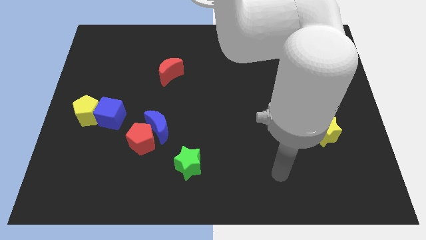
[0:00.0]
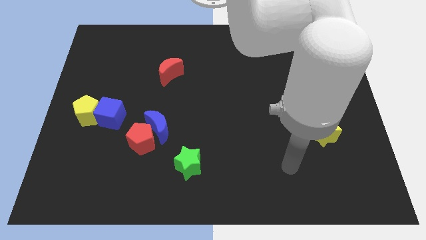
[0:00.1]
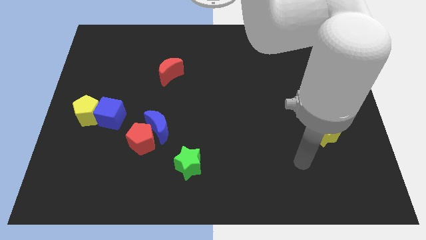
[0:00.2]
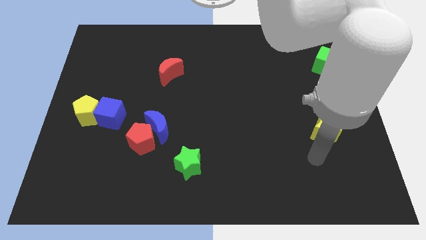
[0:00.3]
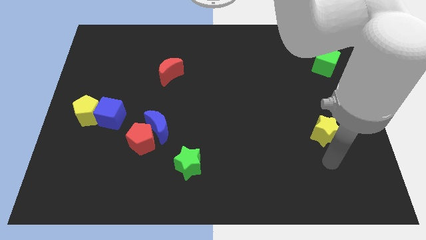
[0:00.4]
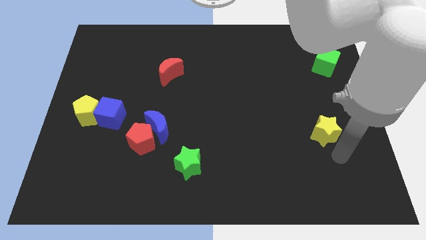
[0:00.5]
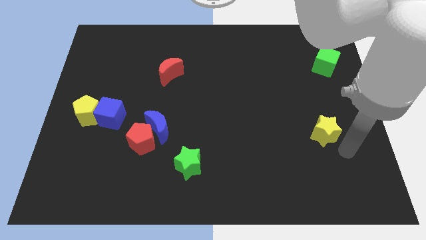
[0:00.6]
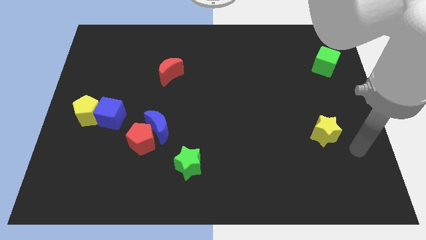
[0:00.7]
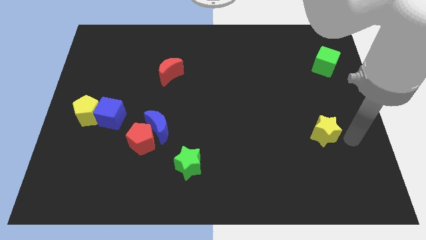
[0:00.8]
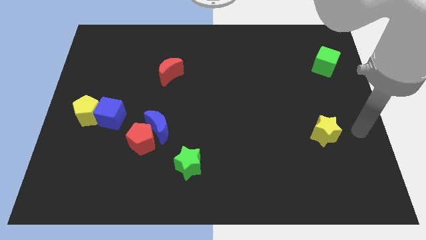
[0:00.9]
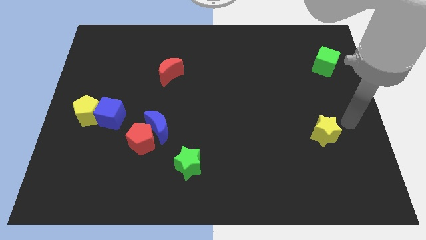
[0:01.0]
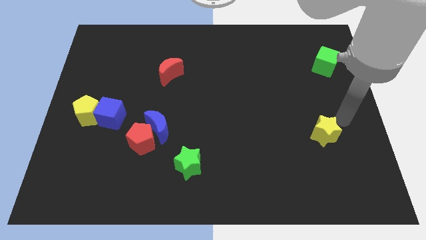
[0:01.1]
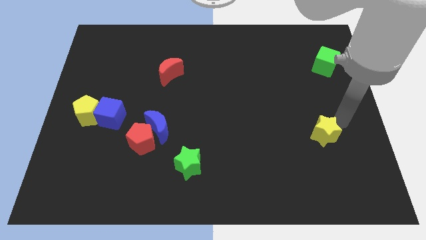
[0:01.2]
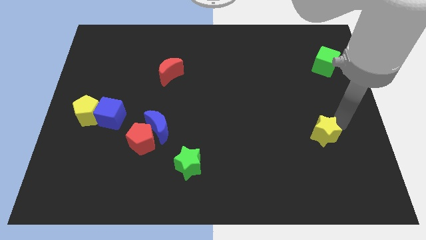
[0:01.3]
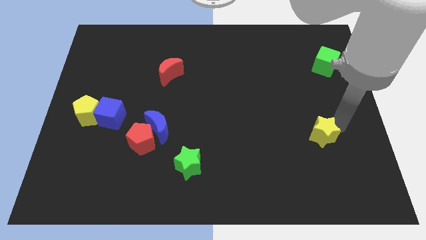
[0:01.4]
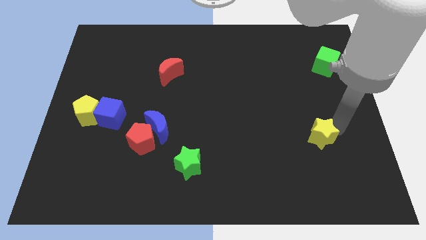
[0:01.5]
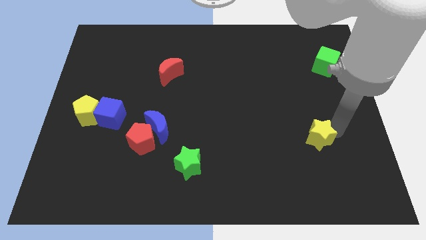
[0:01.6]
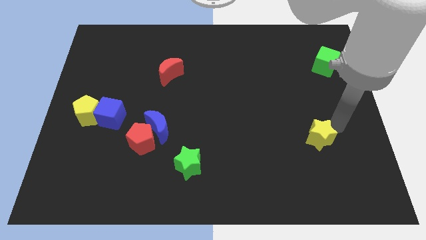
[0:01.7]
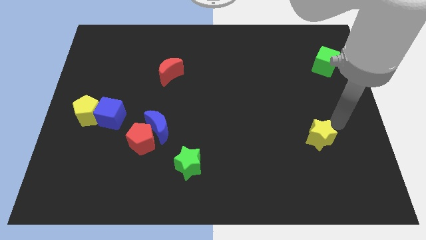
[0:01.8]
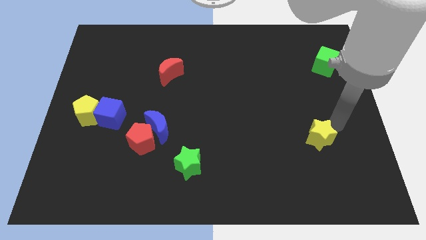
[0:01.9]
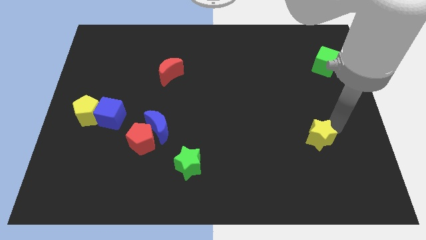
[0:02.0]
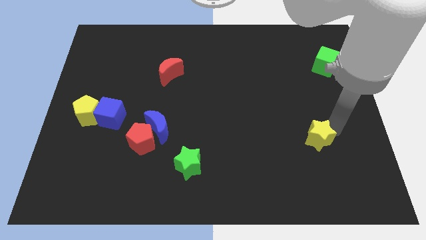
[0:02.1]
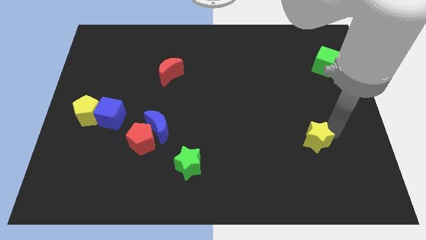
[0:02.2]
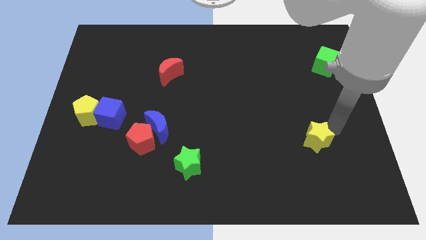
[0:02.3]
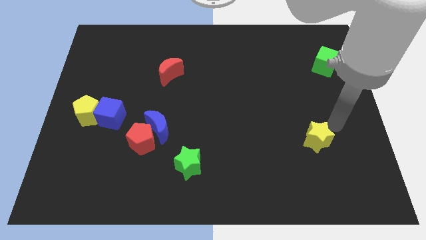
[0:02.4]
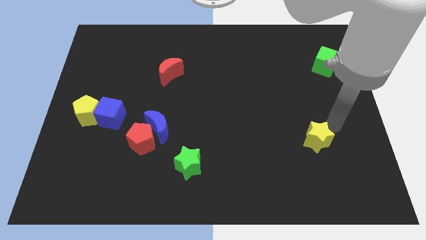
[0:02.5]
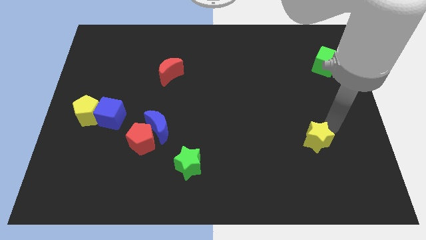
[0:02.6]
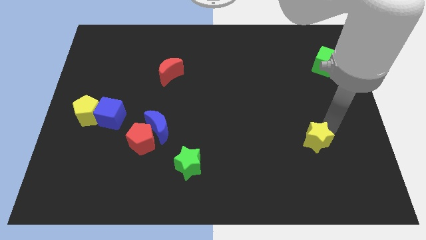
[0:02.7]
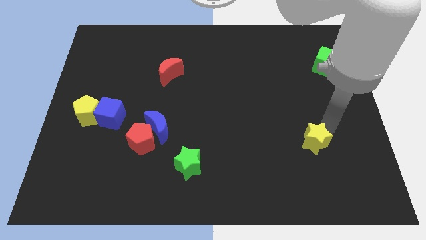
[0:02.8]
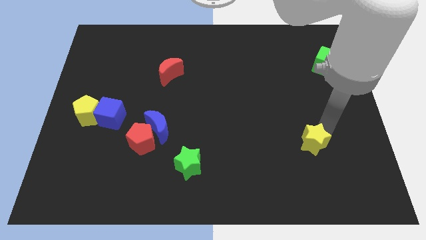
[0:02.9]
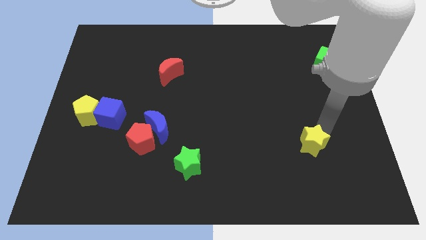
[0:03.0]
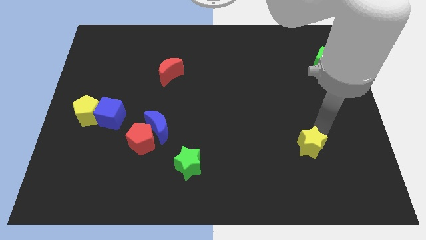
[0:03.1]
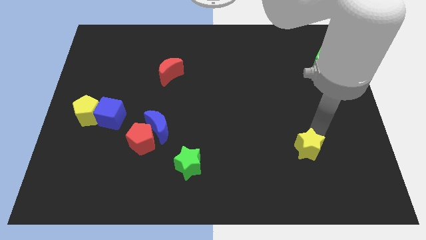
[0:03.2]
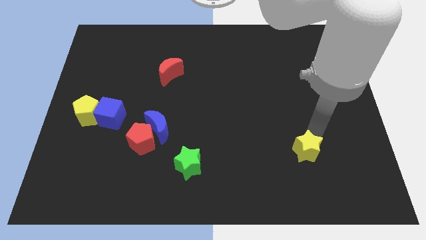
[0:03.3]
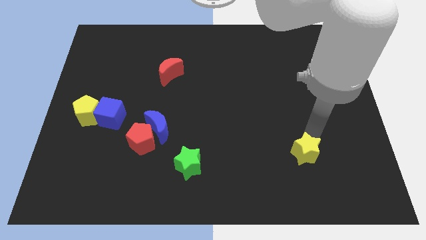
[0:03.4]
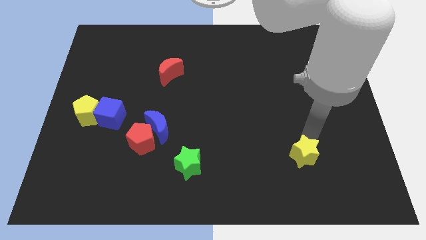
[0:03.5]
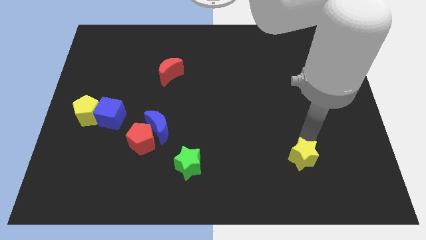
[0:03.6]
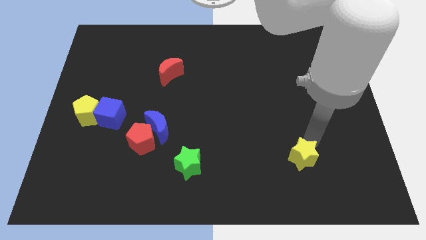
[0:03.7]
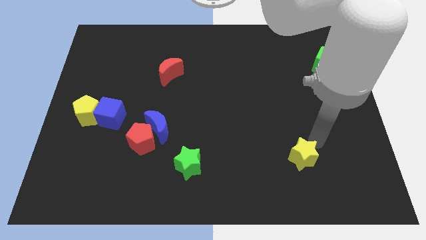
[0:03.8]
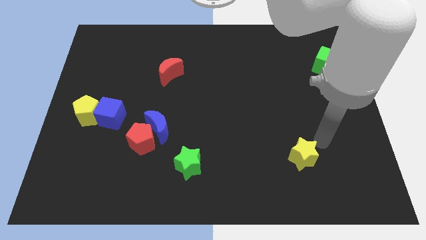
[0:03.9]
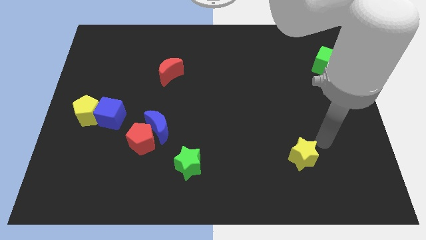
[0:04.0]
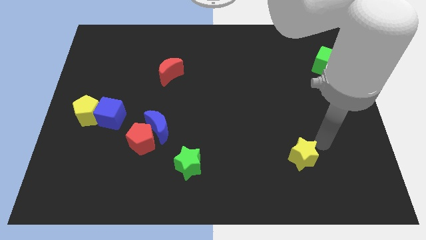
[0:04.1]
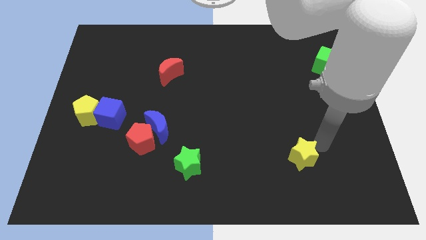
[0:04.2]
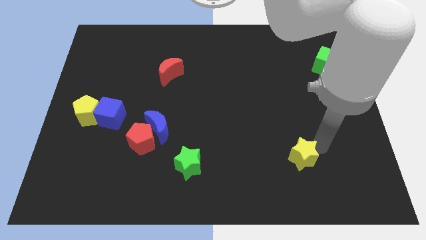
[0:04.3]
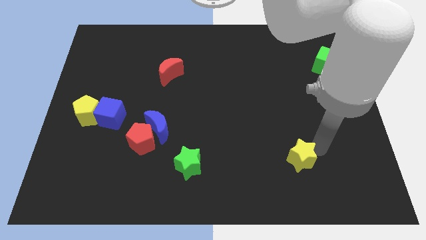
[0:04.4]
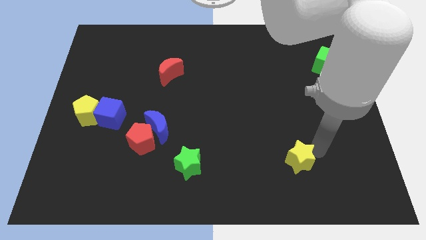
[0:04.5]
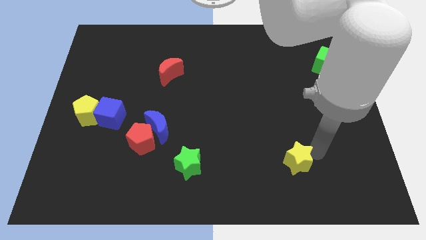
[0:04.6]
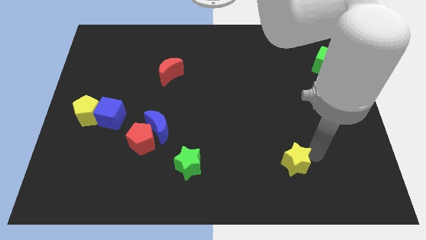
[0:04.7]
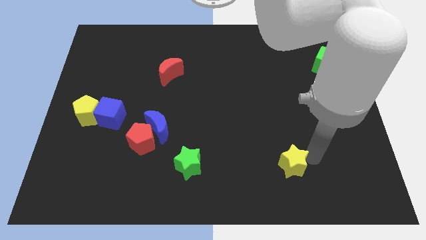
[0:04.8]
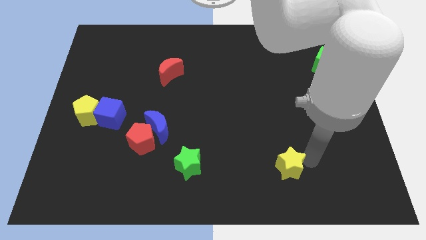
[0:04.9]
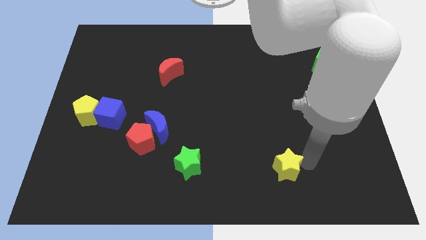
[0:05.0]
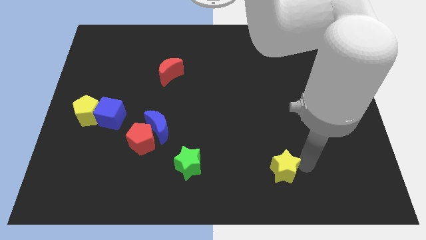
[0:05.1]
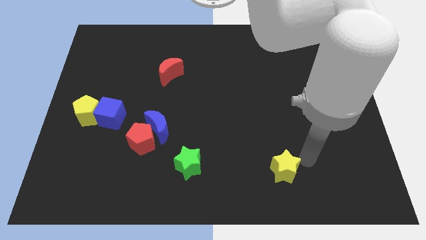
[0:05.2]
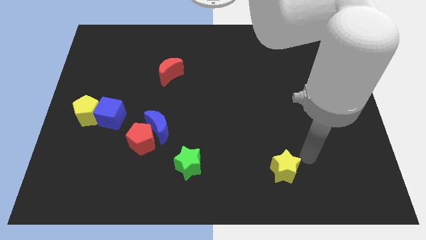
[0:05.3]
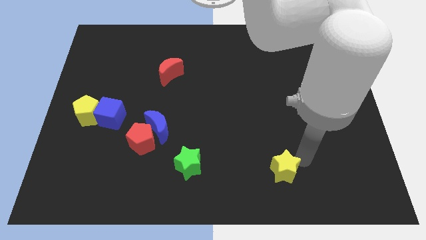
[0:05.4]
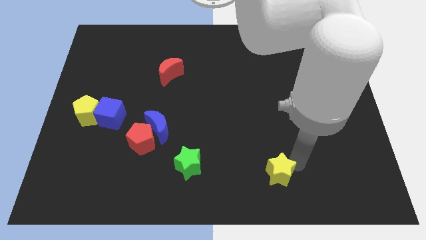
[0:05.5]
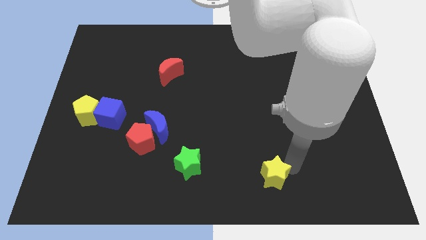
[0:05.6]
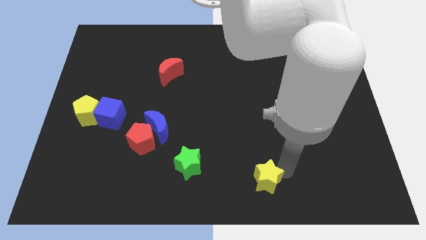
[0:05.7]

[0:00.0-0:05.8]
slide the yellow star to the bottom side
